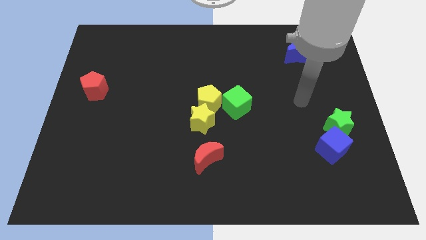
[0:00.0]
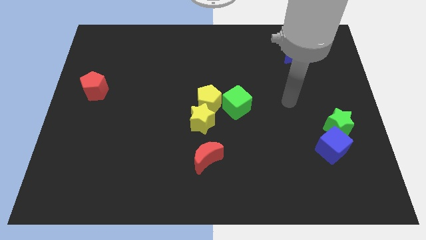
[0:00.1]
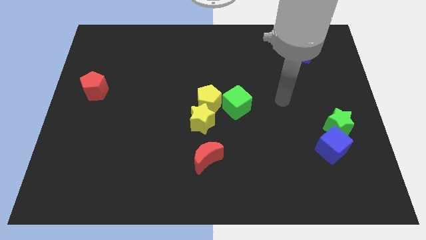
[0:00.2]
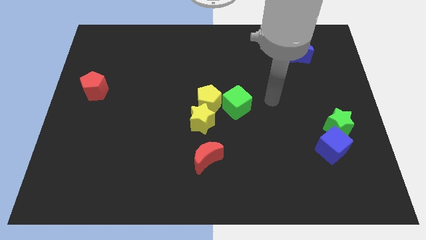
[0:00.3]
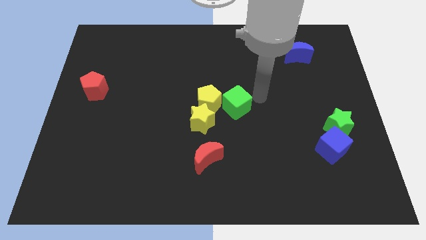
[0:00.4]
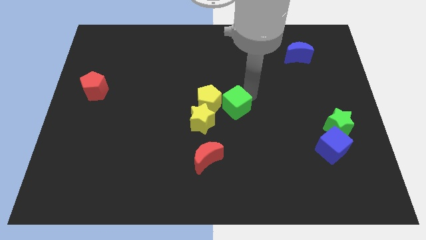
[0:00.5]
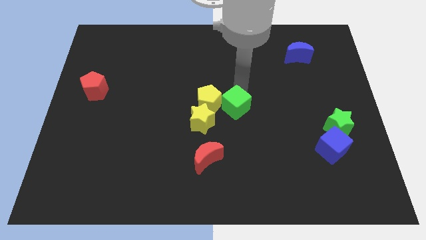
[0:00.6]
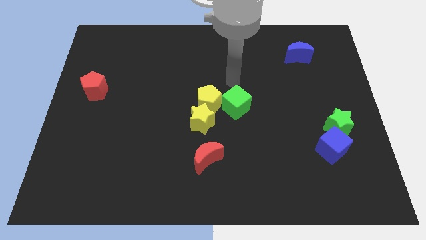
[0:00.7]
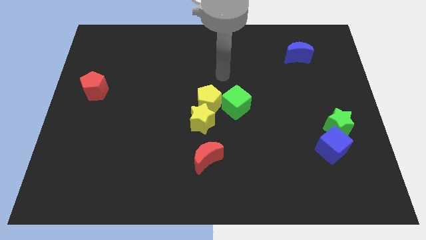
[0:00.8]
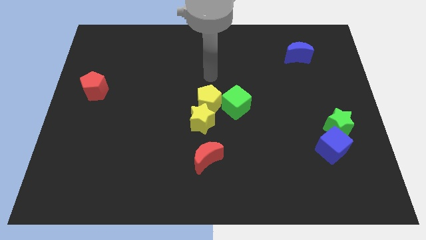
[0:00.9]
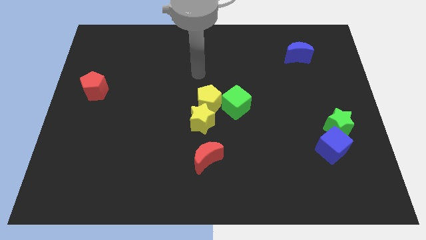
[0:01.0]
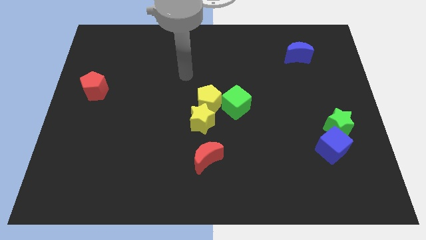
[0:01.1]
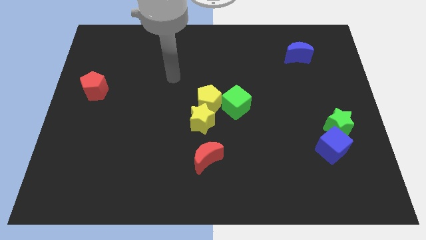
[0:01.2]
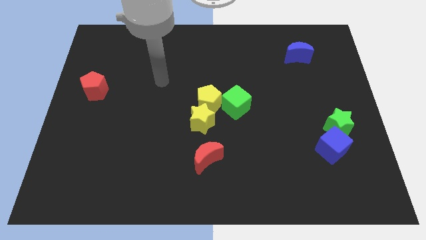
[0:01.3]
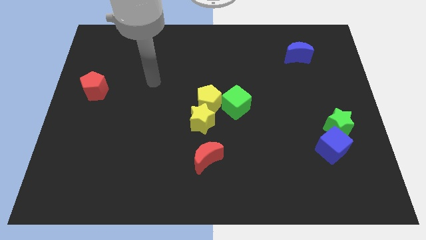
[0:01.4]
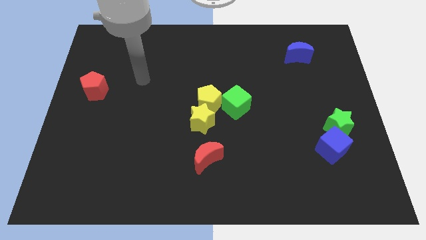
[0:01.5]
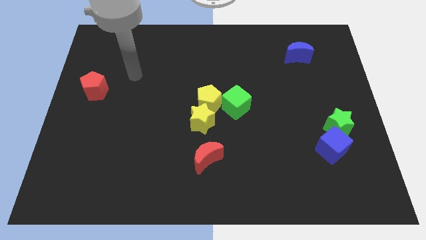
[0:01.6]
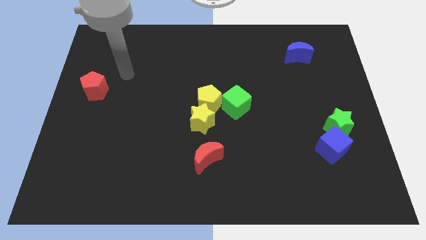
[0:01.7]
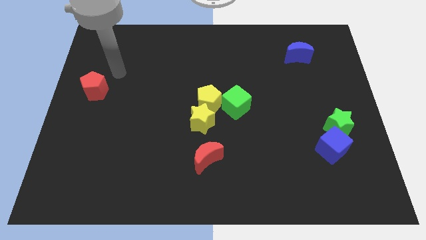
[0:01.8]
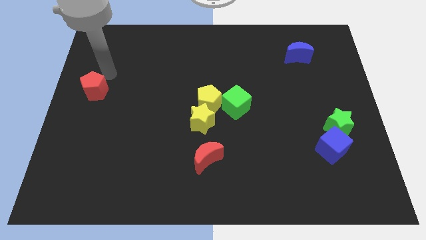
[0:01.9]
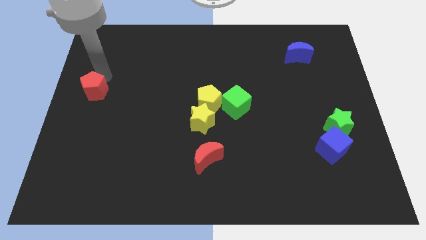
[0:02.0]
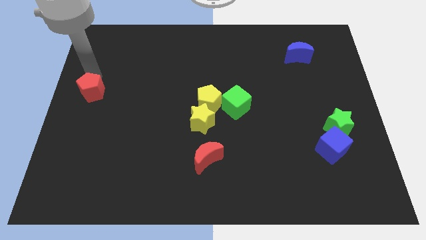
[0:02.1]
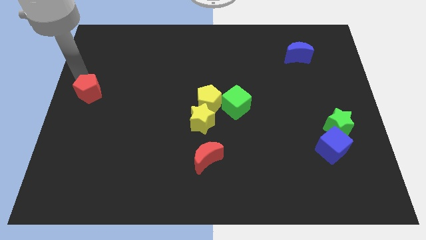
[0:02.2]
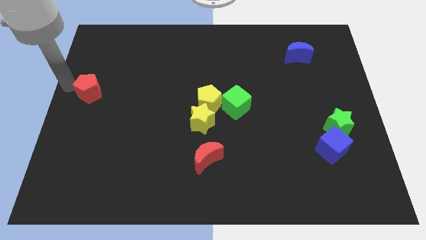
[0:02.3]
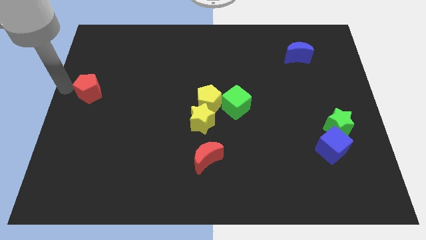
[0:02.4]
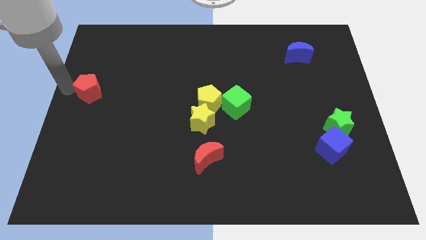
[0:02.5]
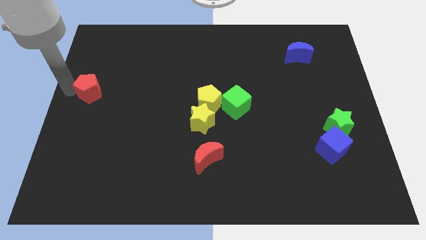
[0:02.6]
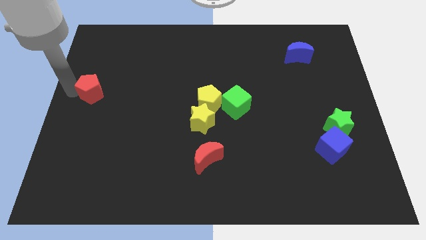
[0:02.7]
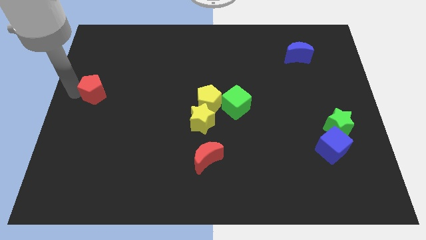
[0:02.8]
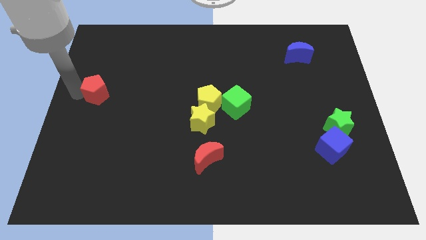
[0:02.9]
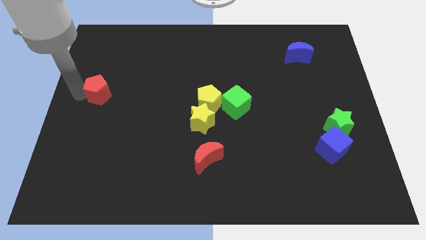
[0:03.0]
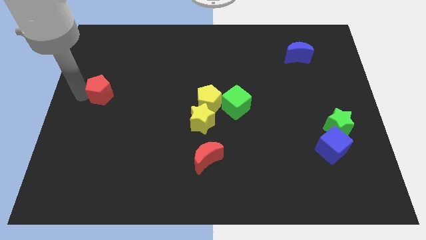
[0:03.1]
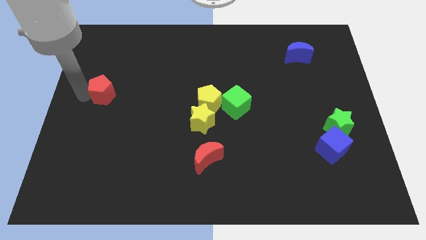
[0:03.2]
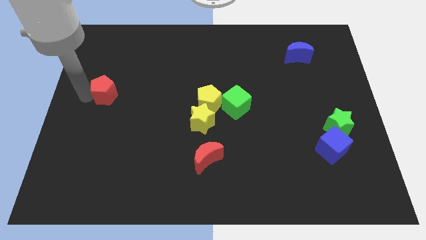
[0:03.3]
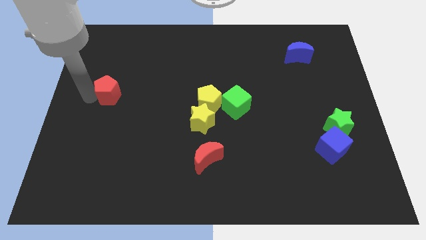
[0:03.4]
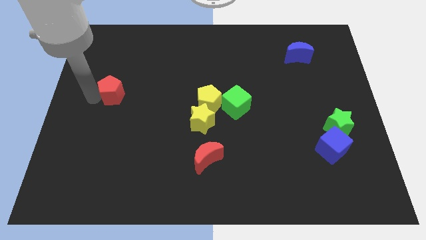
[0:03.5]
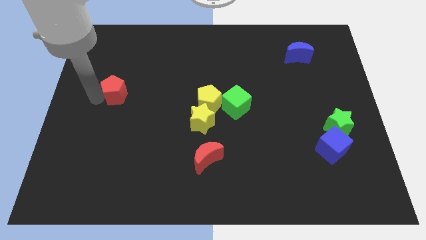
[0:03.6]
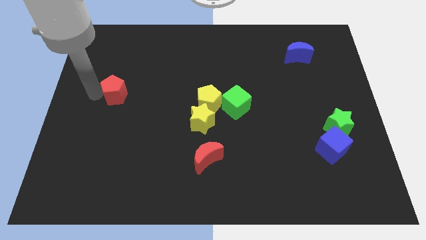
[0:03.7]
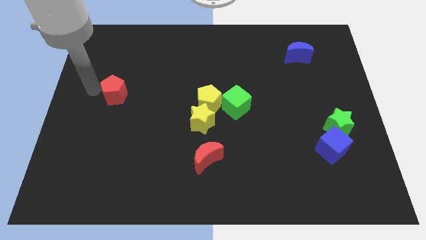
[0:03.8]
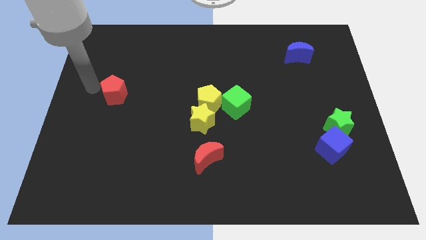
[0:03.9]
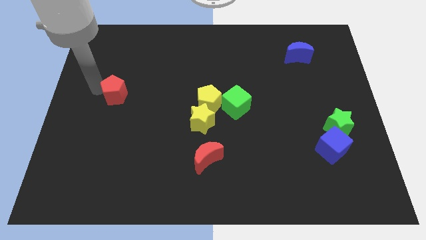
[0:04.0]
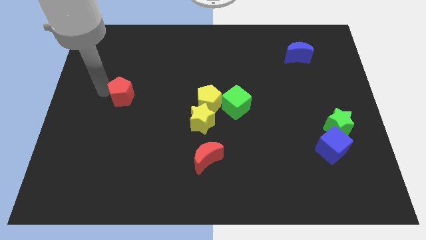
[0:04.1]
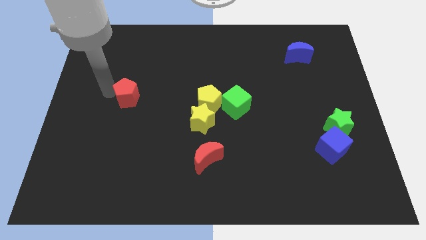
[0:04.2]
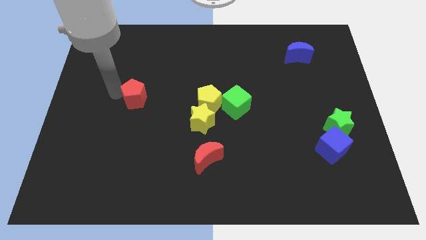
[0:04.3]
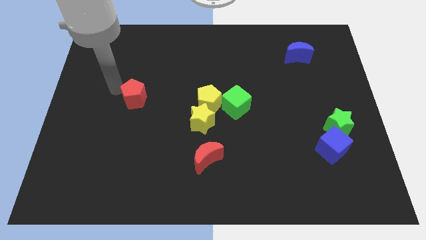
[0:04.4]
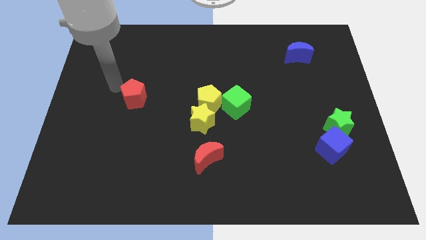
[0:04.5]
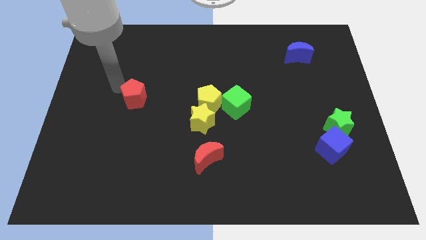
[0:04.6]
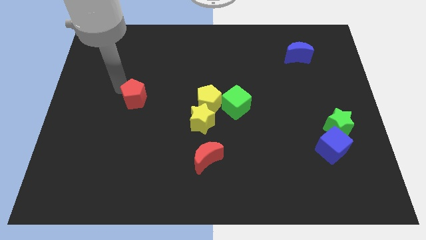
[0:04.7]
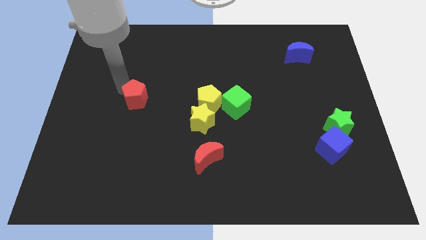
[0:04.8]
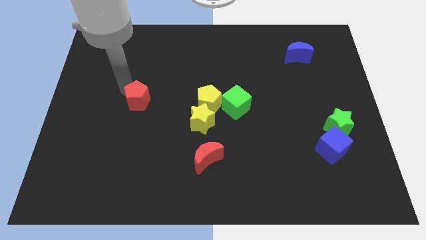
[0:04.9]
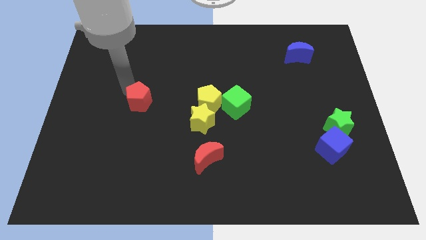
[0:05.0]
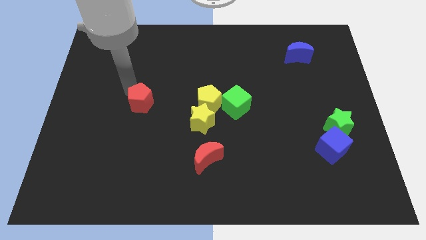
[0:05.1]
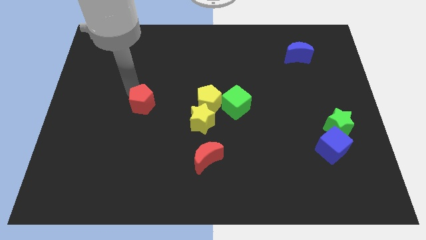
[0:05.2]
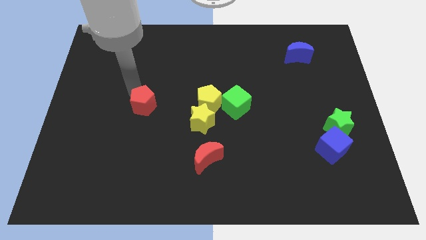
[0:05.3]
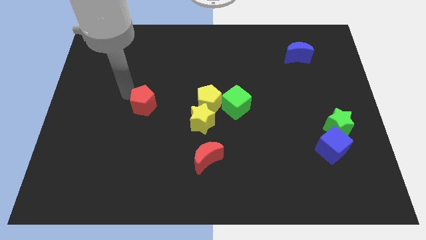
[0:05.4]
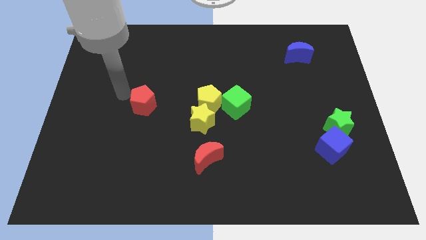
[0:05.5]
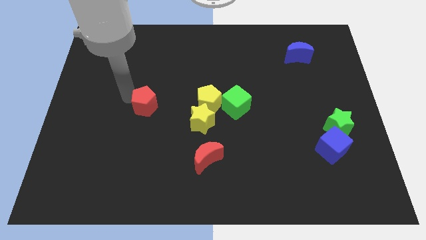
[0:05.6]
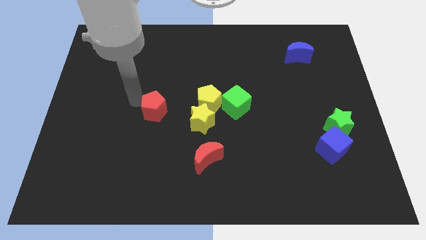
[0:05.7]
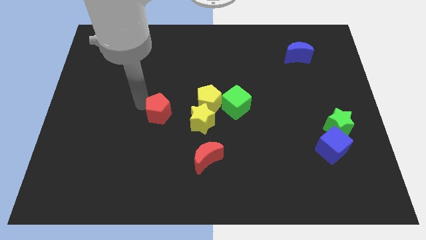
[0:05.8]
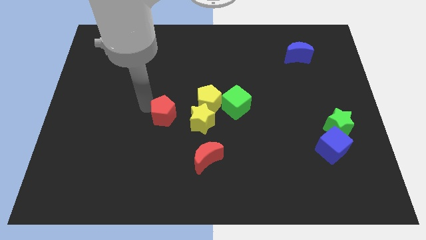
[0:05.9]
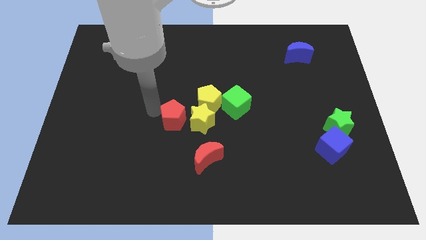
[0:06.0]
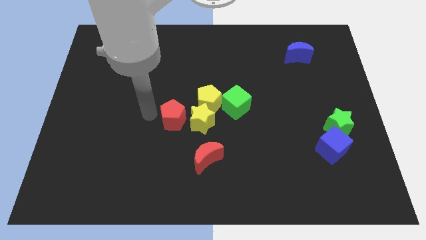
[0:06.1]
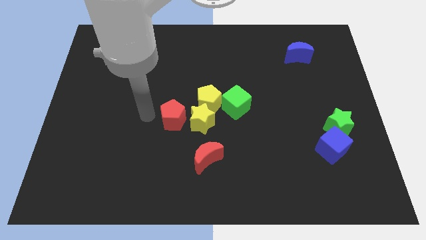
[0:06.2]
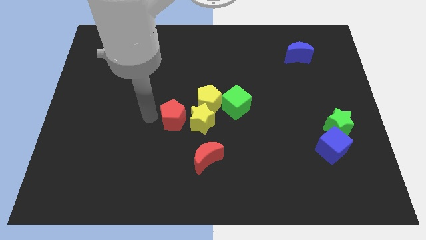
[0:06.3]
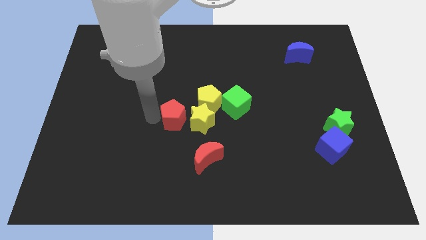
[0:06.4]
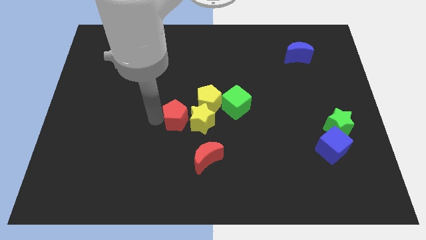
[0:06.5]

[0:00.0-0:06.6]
put the red pentagon next to the yellow star
